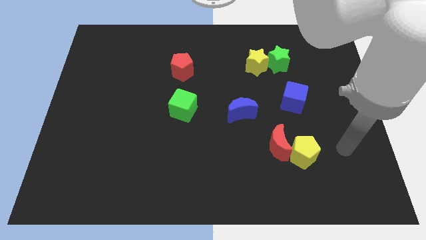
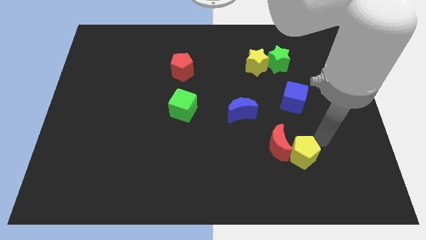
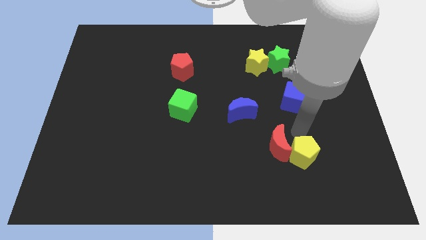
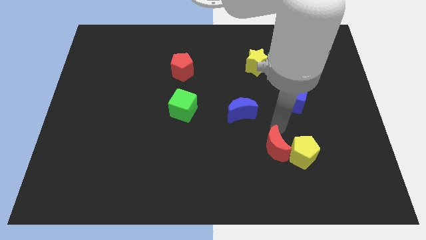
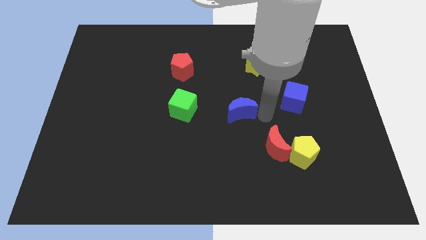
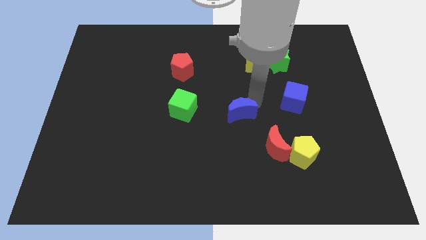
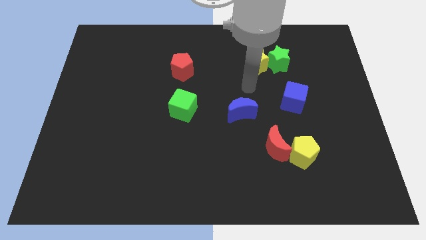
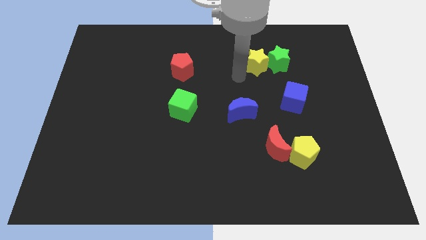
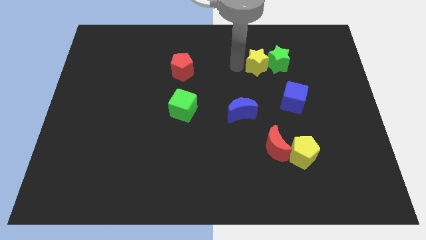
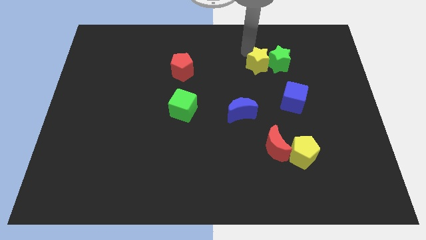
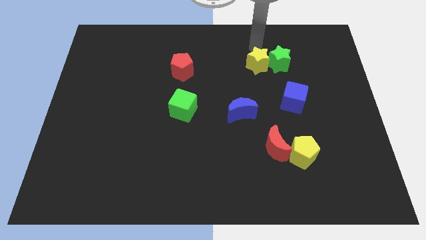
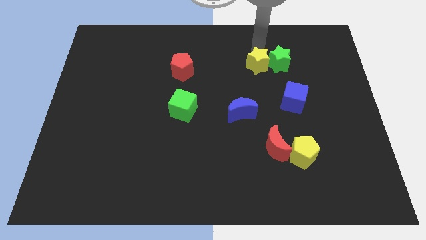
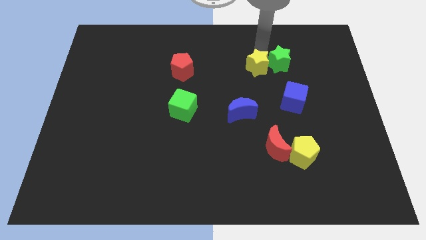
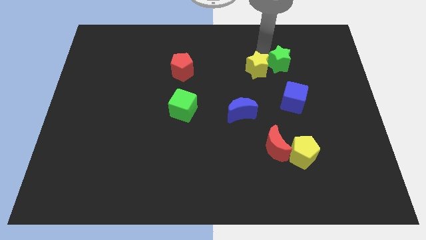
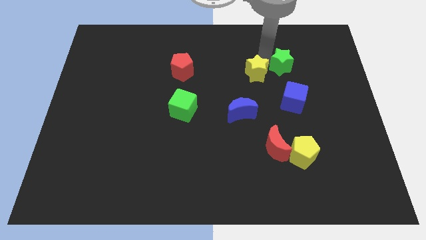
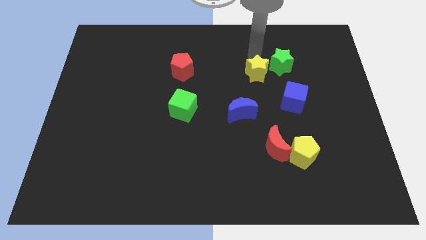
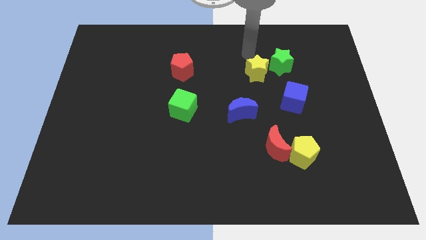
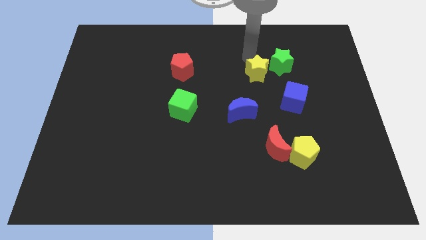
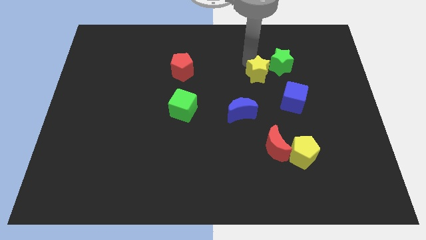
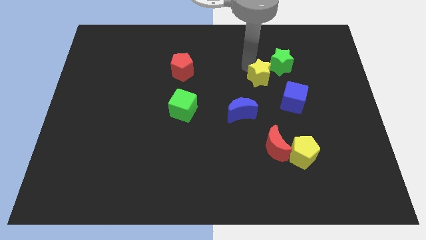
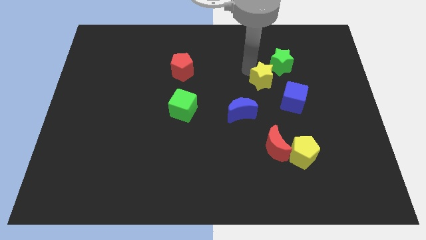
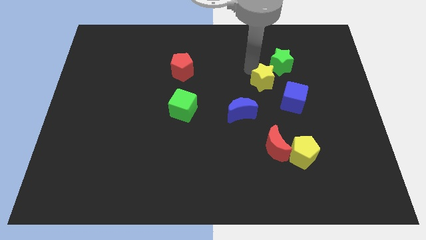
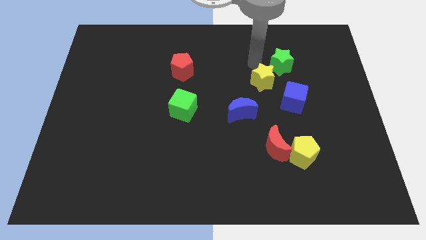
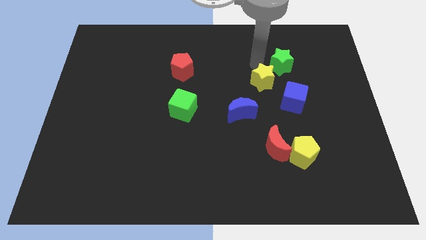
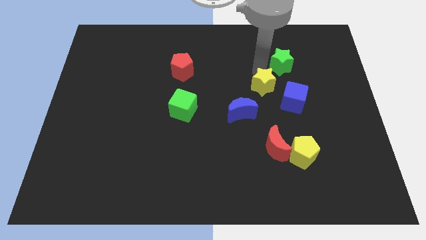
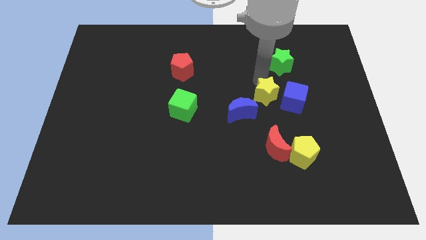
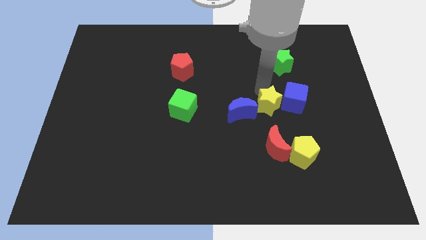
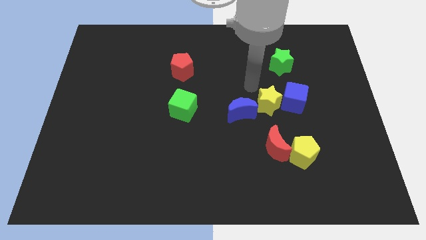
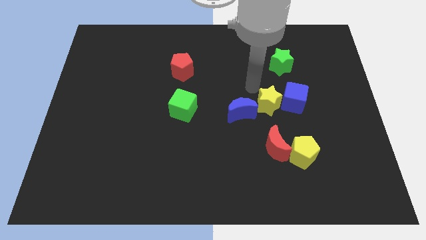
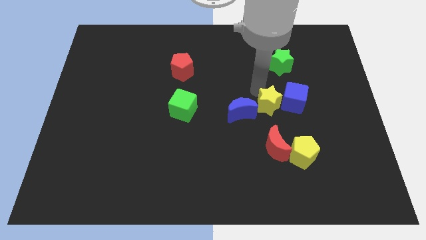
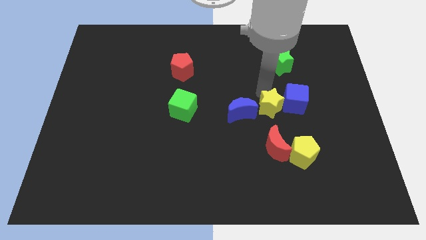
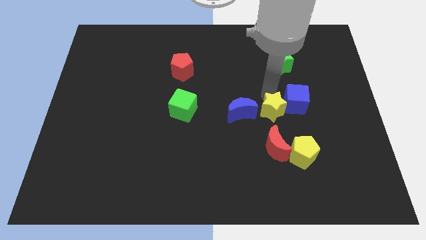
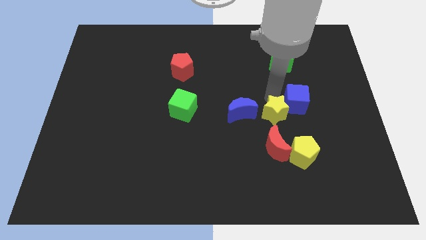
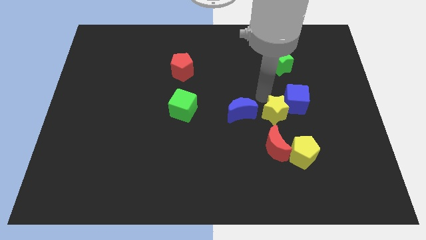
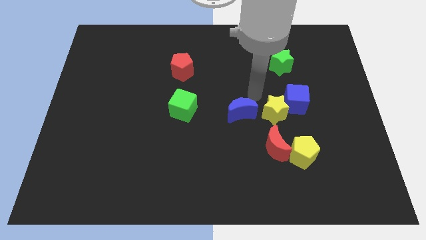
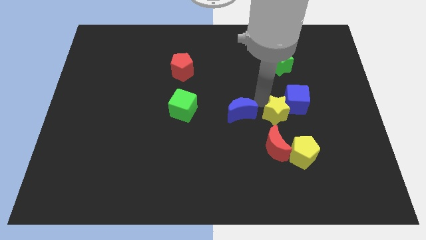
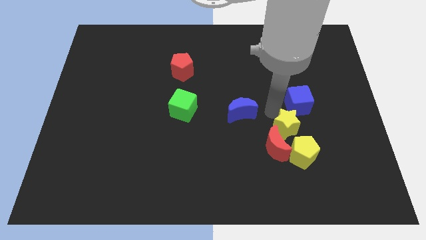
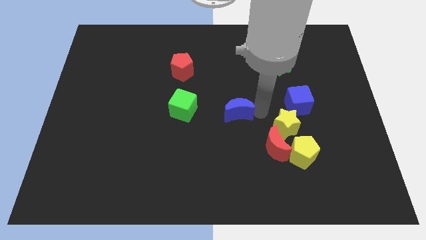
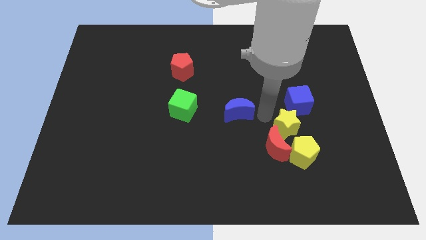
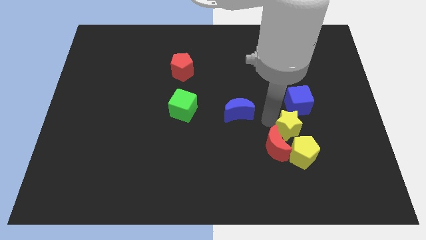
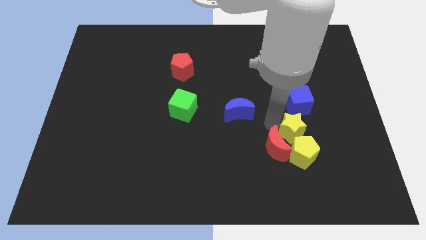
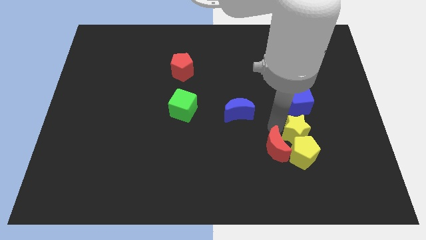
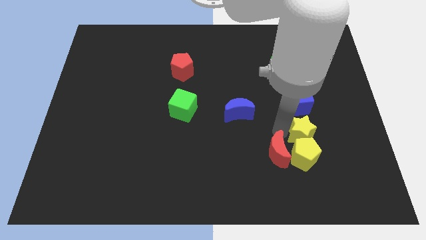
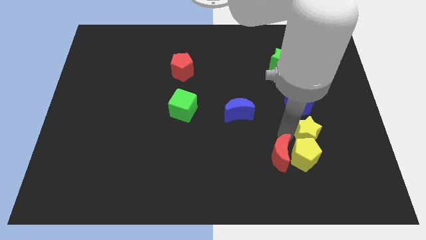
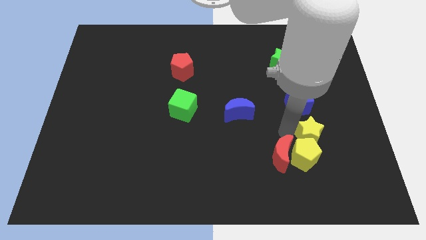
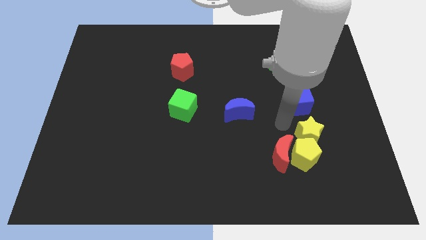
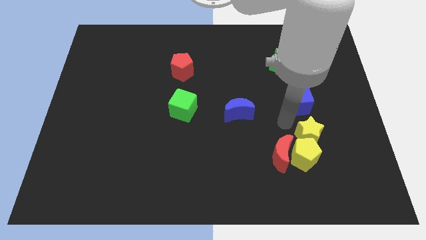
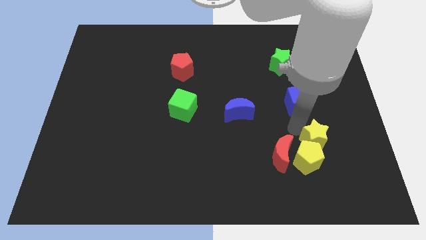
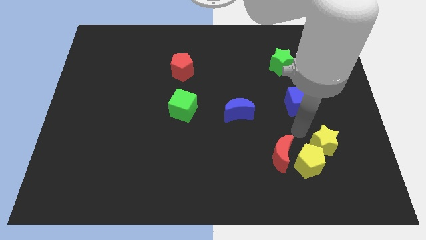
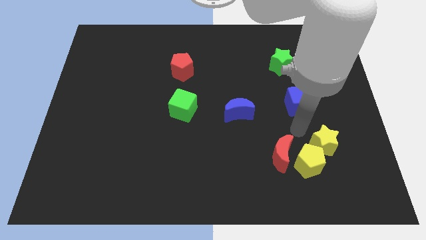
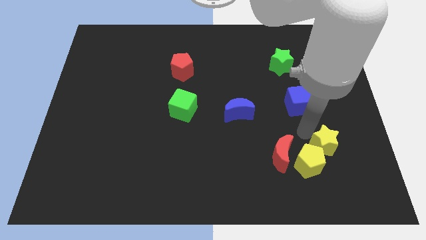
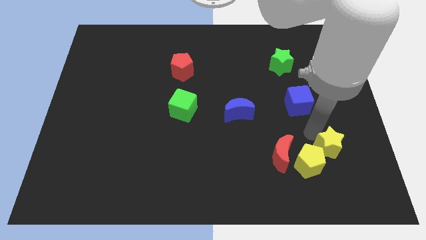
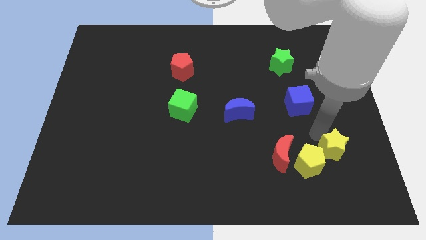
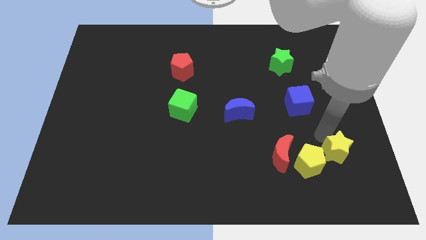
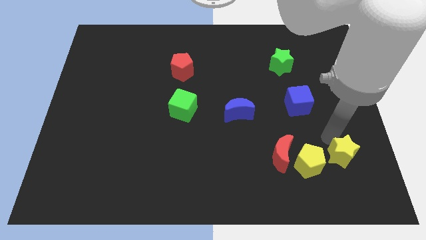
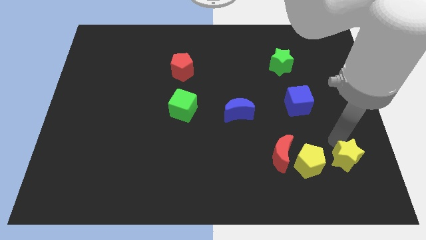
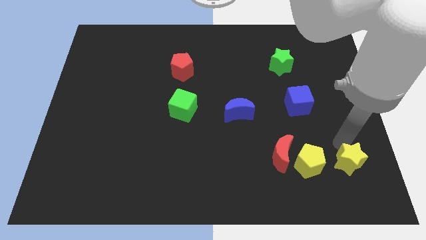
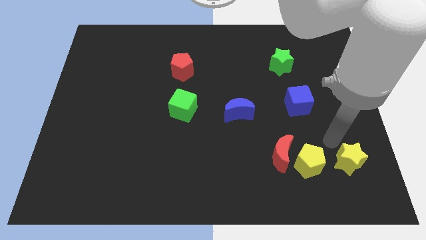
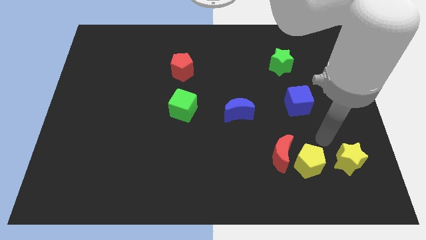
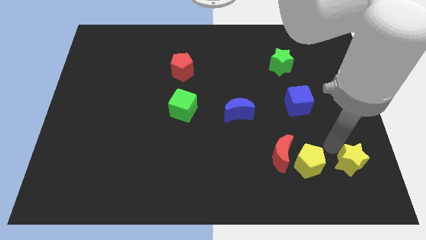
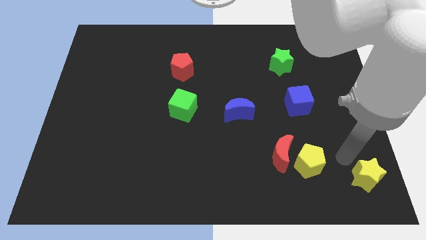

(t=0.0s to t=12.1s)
slide the yellow star to the bottom right of the board

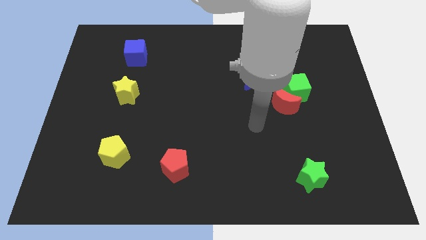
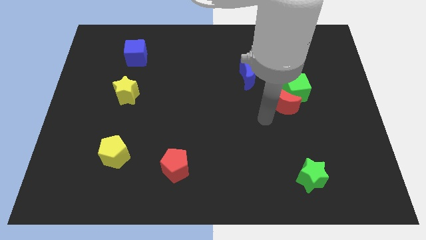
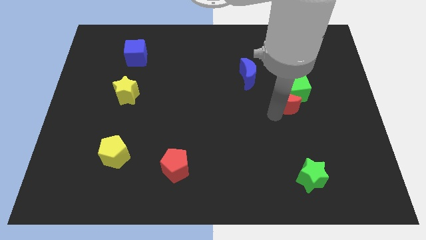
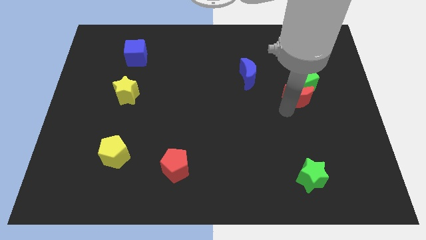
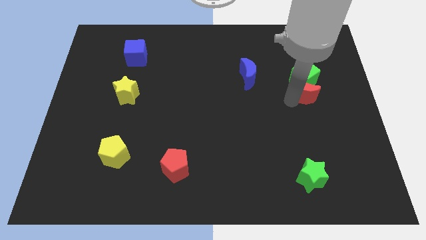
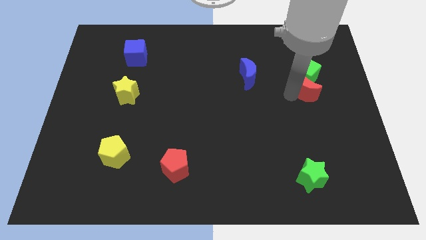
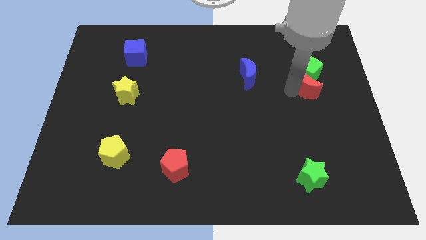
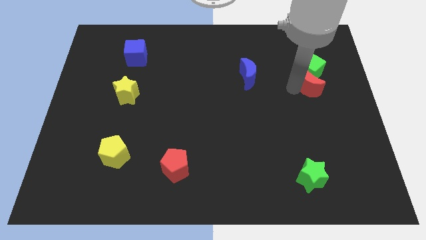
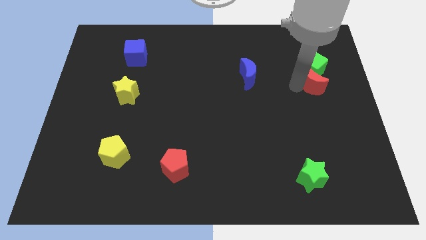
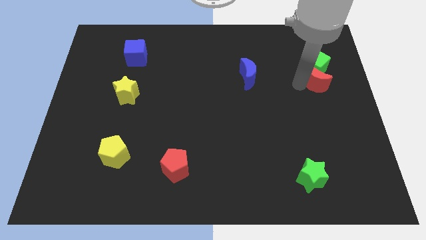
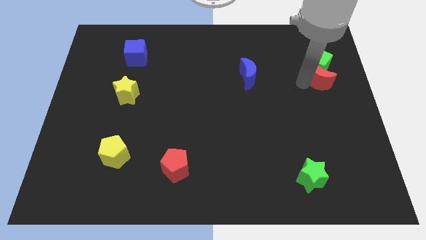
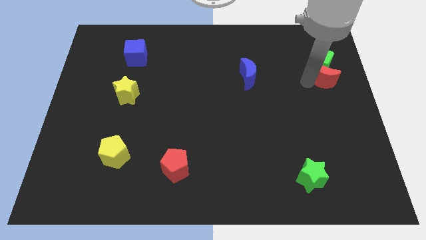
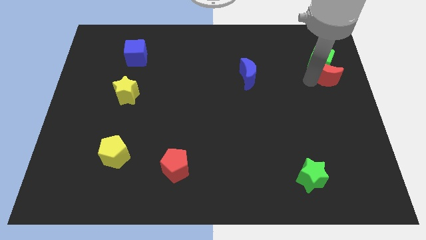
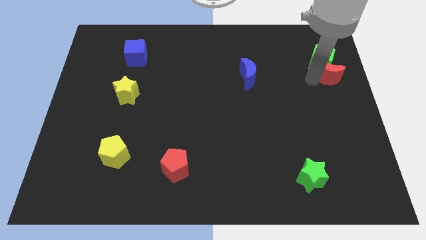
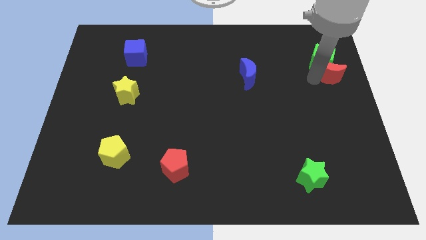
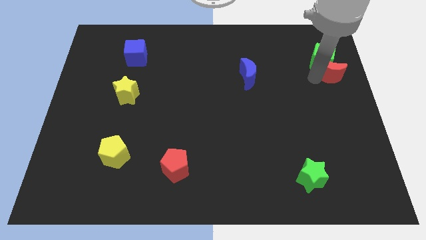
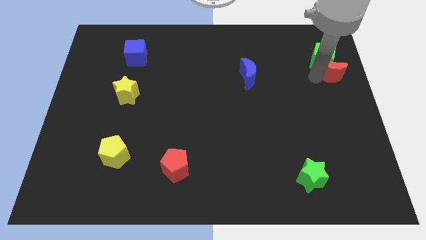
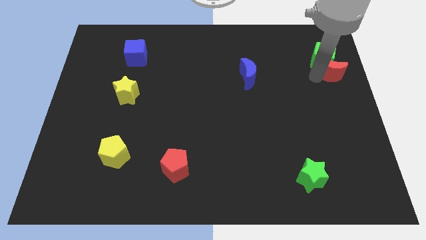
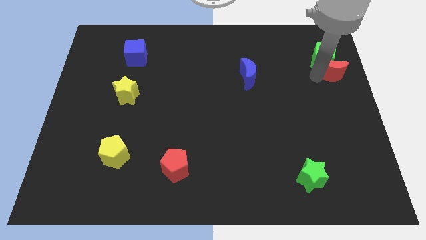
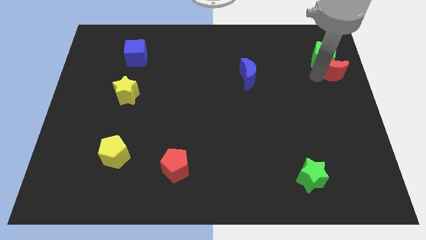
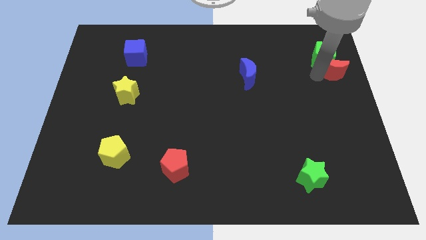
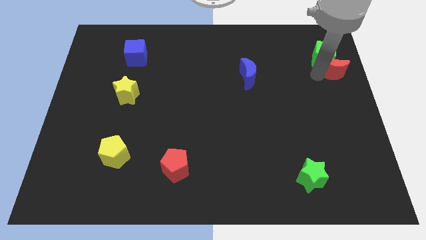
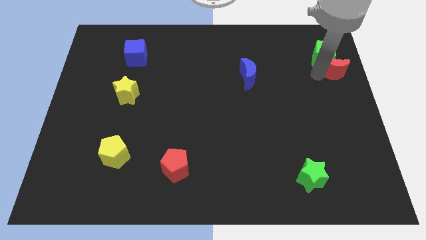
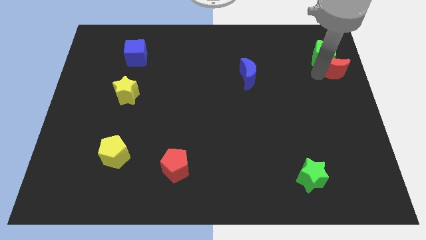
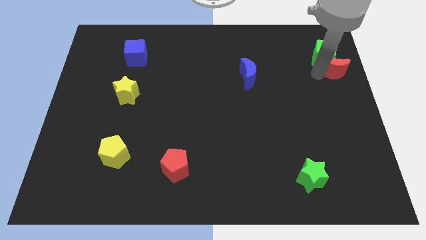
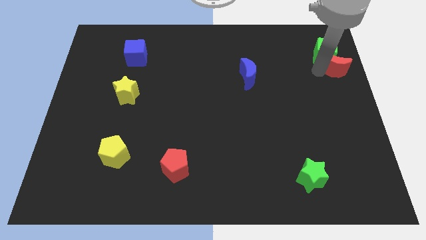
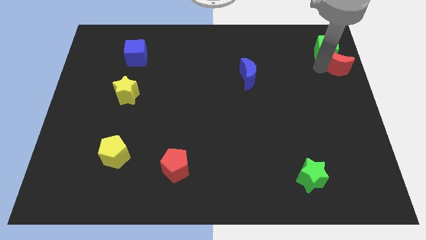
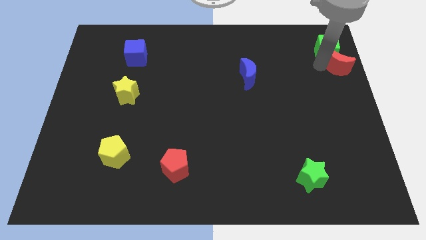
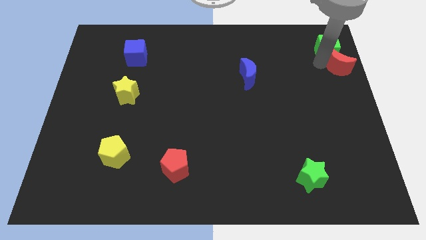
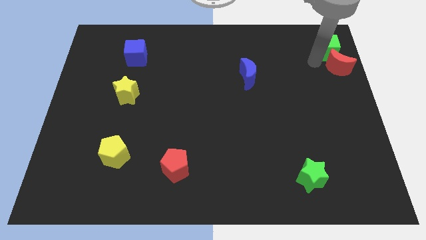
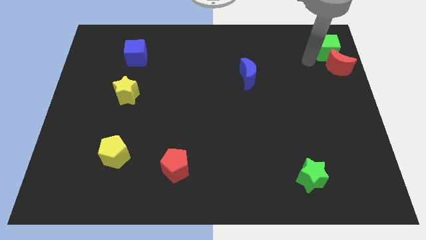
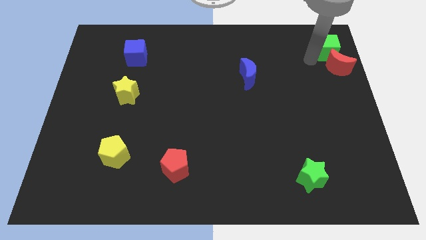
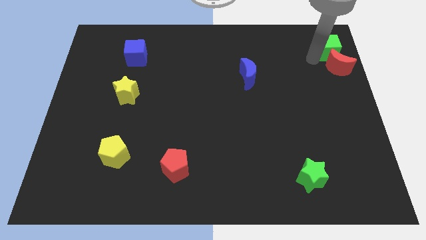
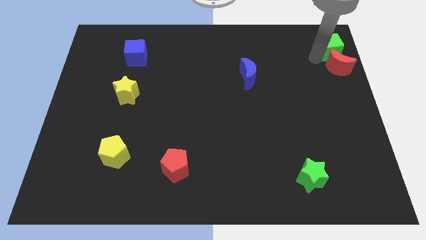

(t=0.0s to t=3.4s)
slide the green cube to the top right corner
